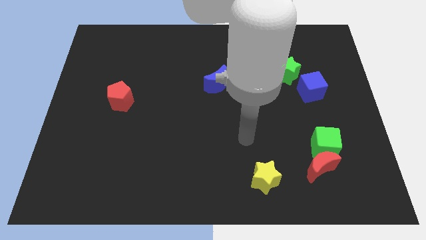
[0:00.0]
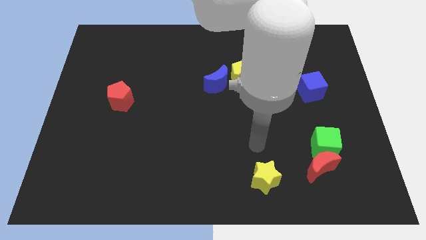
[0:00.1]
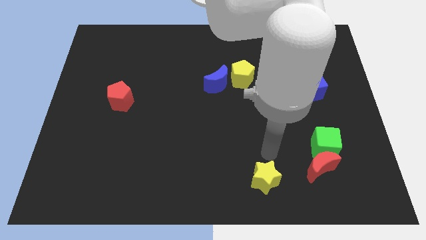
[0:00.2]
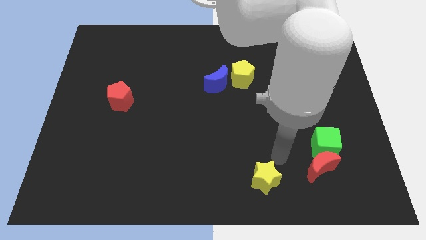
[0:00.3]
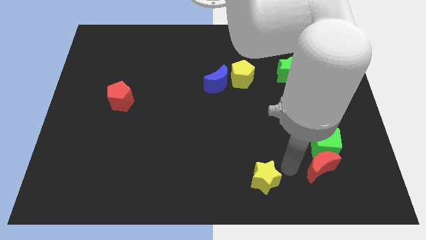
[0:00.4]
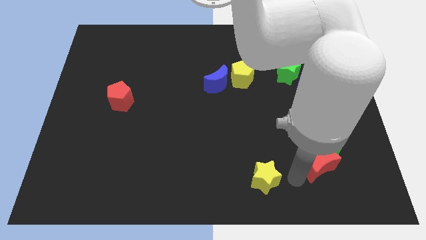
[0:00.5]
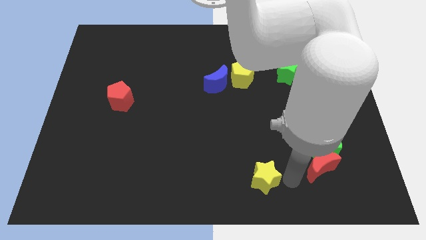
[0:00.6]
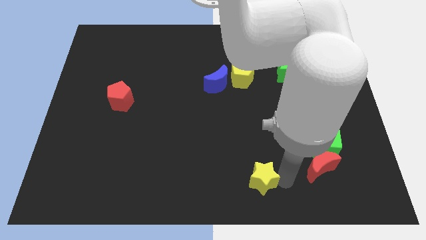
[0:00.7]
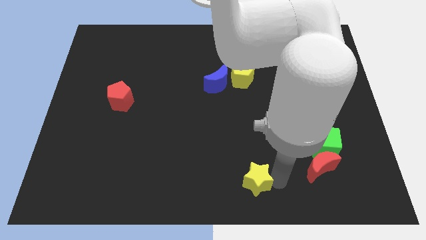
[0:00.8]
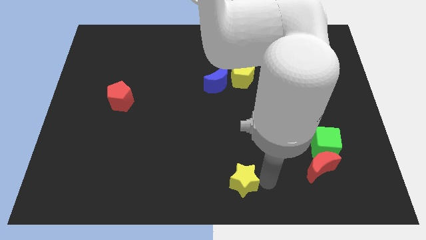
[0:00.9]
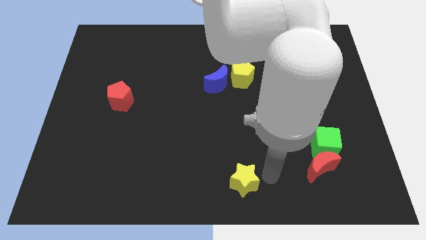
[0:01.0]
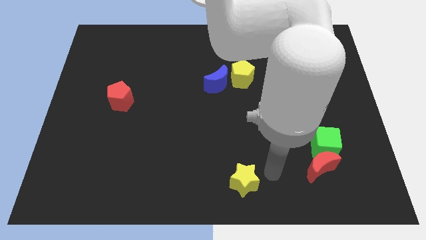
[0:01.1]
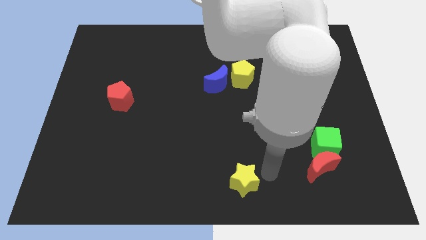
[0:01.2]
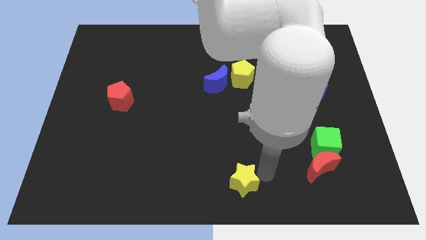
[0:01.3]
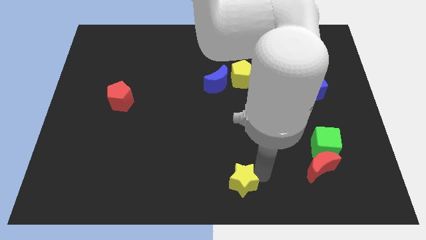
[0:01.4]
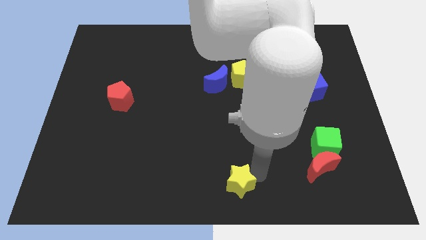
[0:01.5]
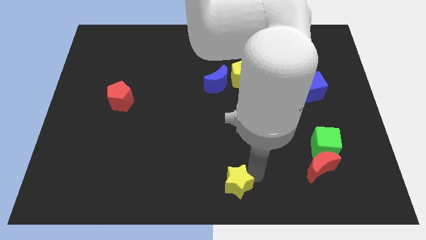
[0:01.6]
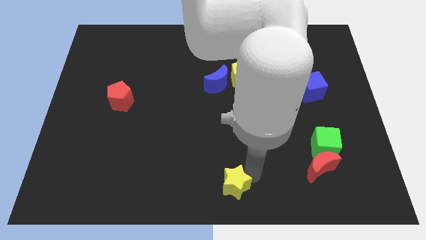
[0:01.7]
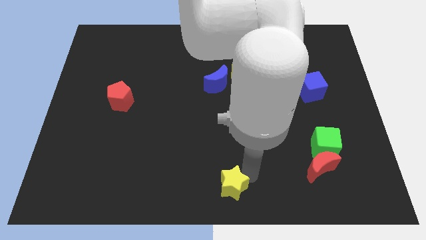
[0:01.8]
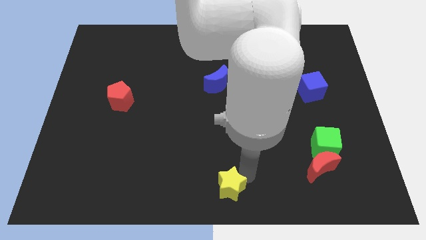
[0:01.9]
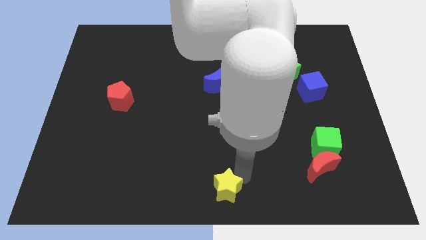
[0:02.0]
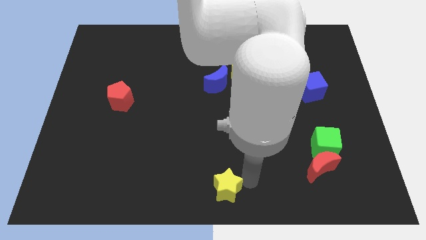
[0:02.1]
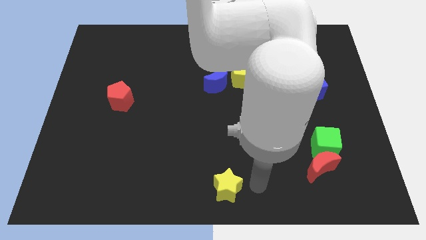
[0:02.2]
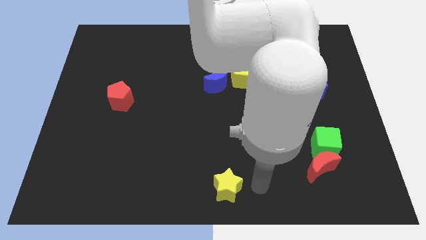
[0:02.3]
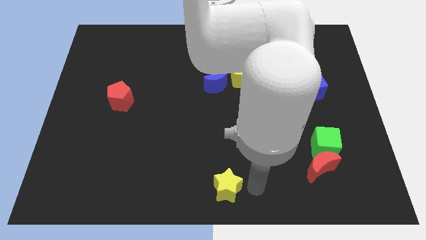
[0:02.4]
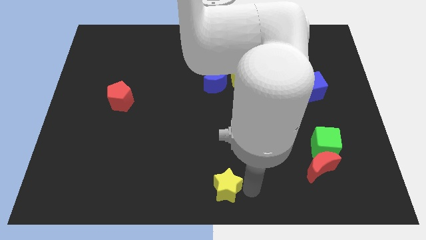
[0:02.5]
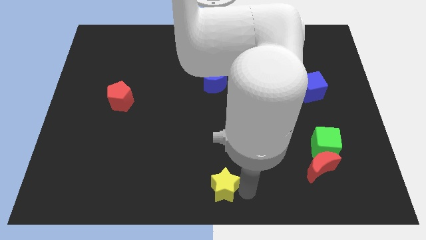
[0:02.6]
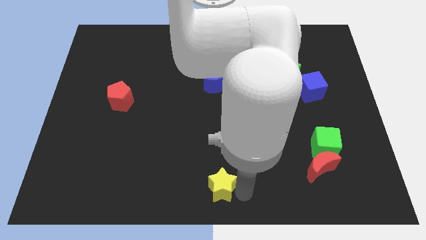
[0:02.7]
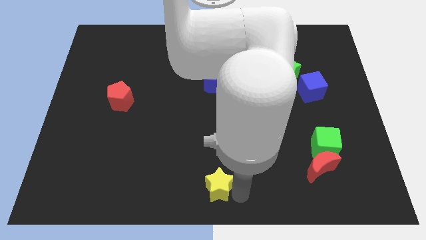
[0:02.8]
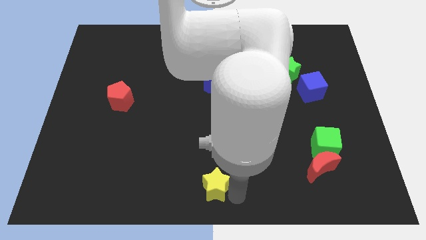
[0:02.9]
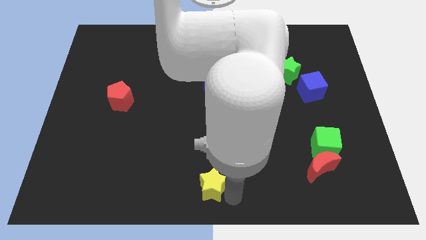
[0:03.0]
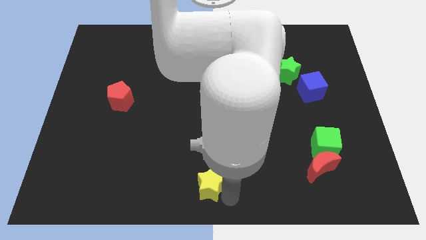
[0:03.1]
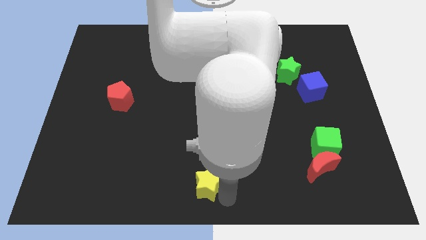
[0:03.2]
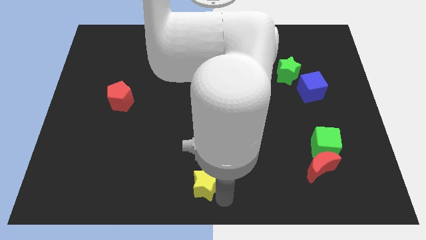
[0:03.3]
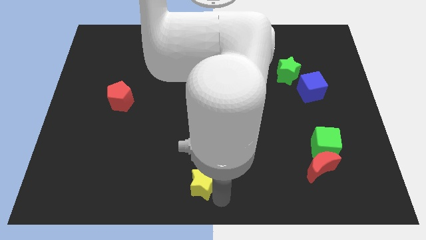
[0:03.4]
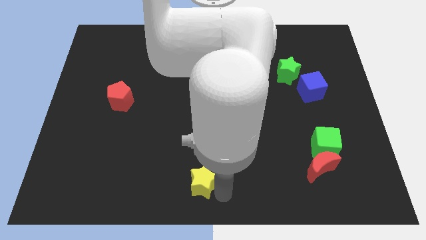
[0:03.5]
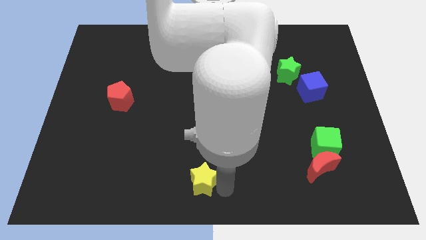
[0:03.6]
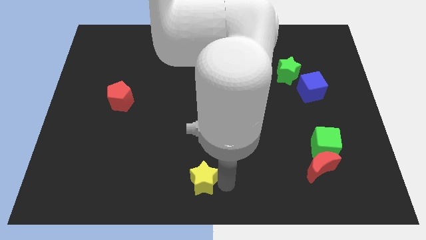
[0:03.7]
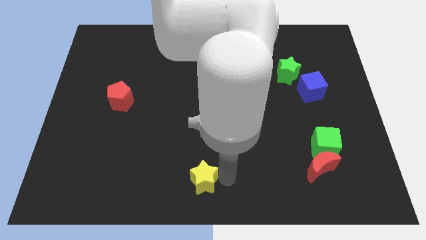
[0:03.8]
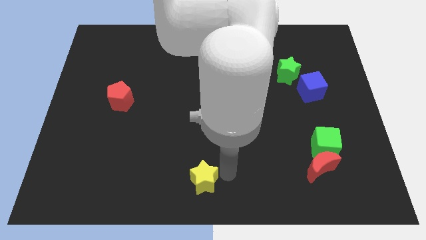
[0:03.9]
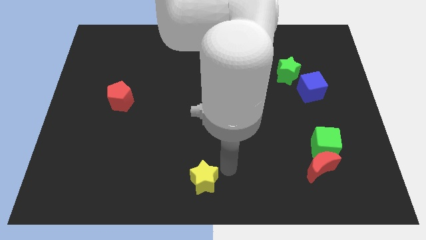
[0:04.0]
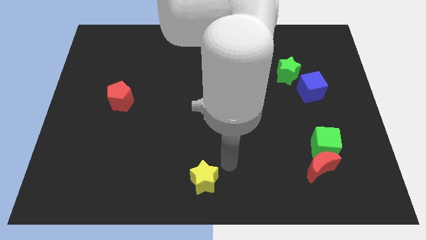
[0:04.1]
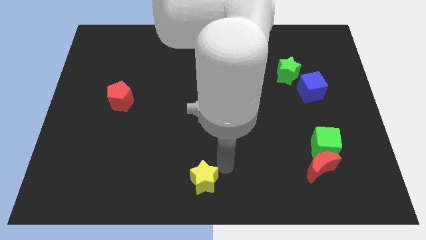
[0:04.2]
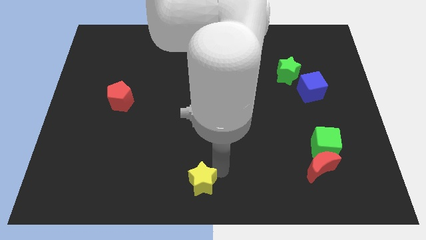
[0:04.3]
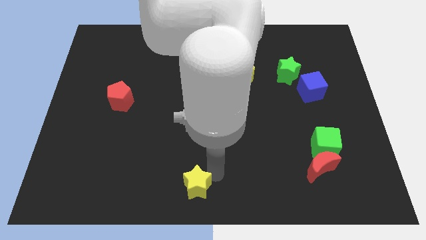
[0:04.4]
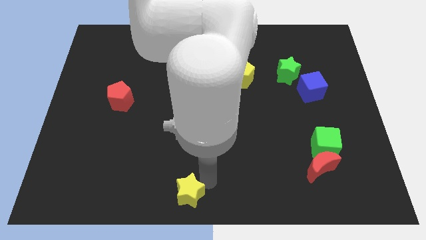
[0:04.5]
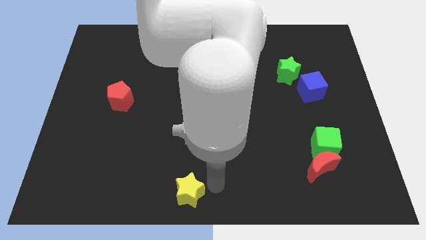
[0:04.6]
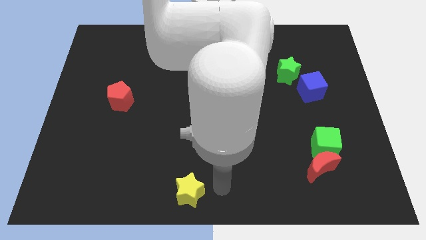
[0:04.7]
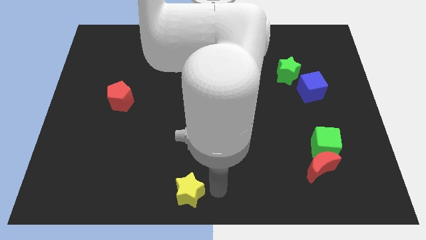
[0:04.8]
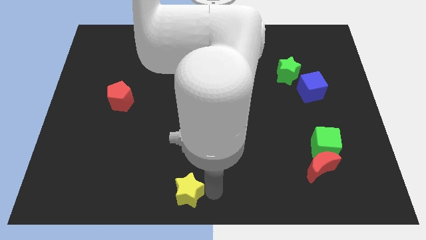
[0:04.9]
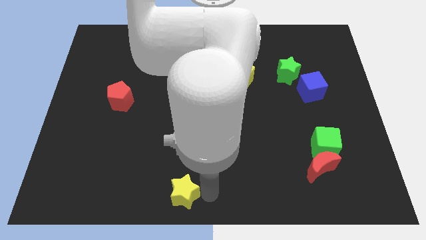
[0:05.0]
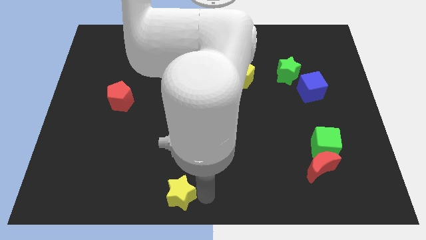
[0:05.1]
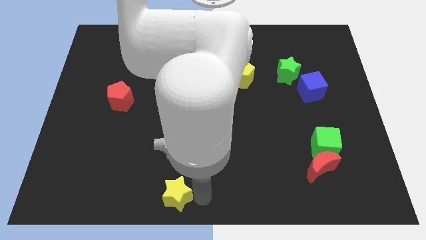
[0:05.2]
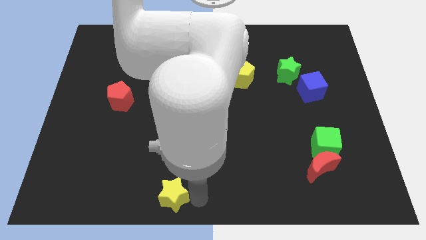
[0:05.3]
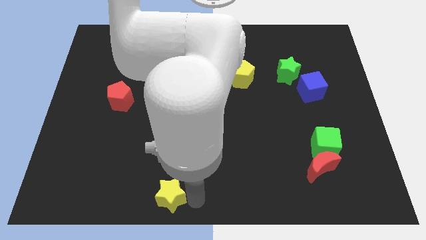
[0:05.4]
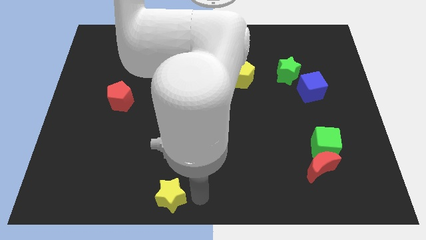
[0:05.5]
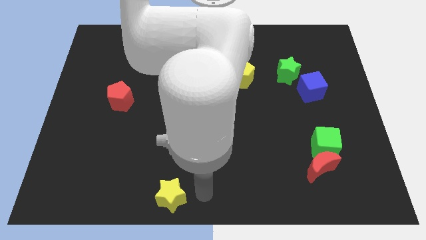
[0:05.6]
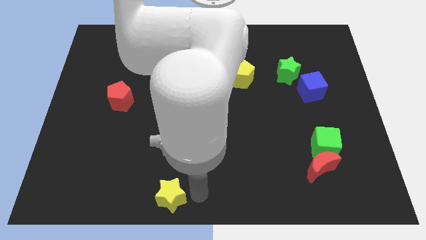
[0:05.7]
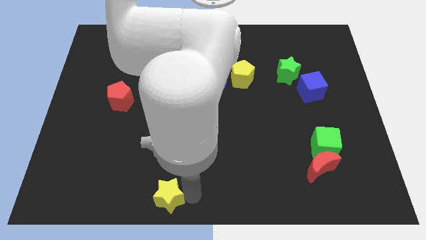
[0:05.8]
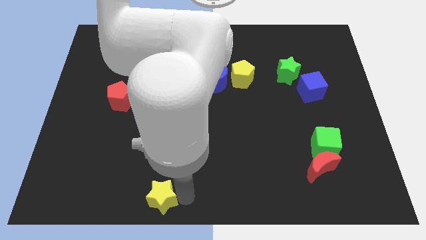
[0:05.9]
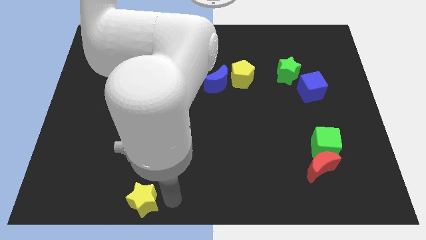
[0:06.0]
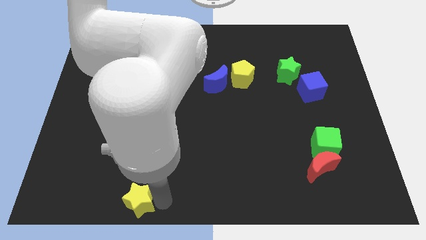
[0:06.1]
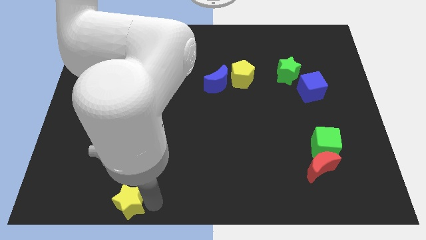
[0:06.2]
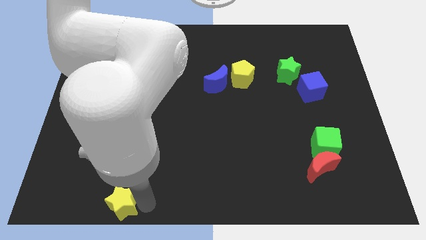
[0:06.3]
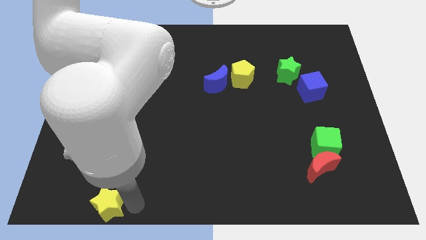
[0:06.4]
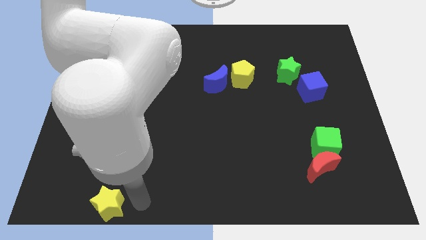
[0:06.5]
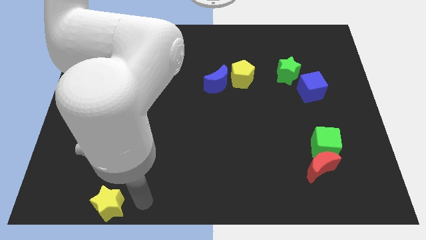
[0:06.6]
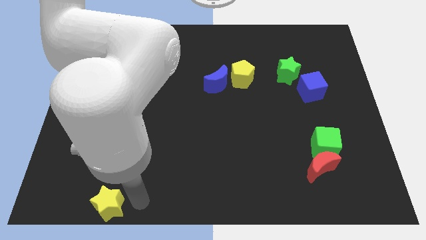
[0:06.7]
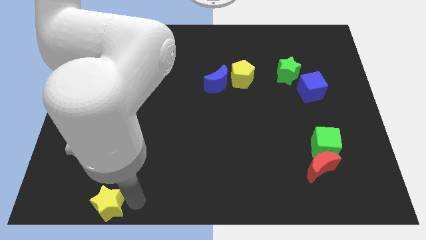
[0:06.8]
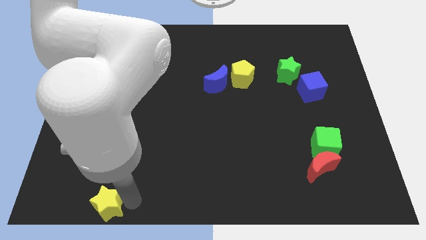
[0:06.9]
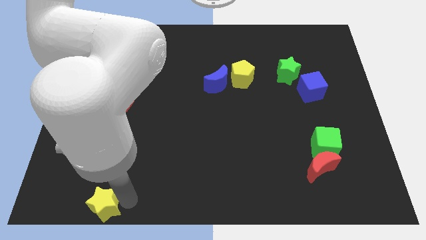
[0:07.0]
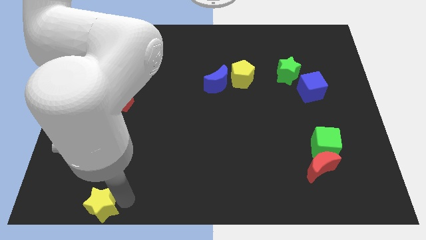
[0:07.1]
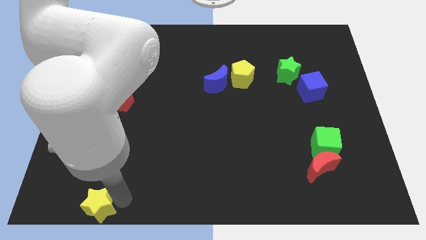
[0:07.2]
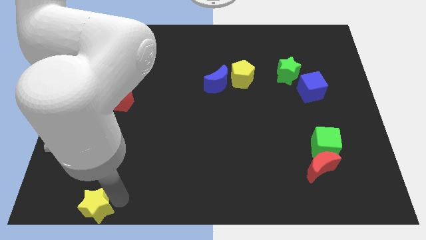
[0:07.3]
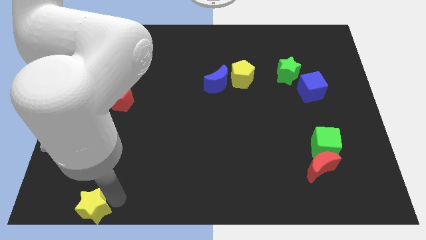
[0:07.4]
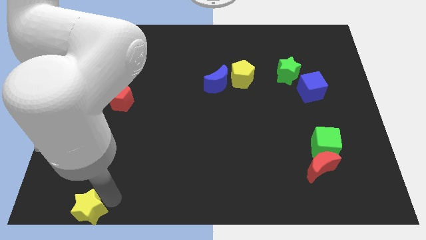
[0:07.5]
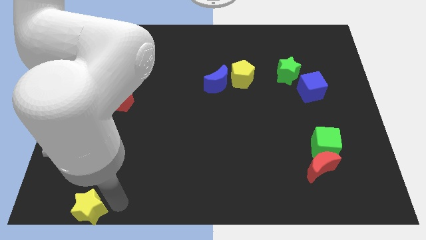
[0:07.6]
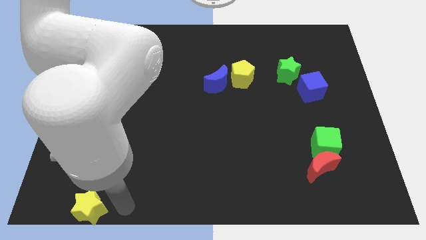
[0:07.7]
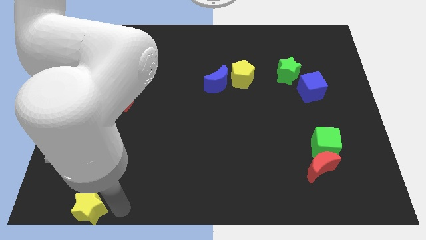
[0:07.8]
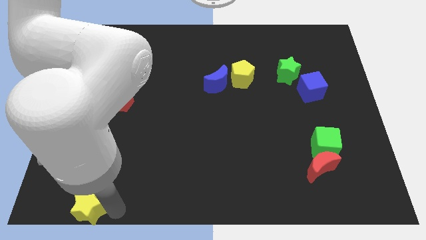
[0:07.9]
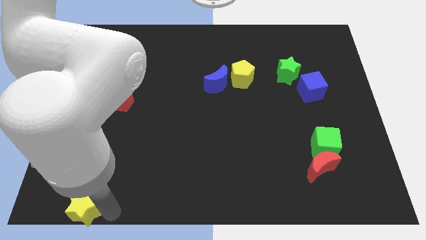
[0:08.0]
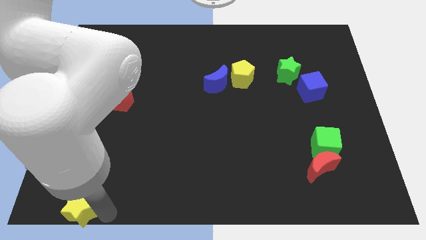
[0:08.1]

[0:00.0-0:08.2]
push the yellow star to the bottom left corner
